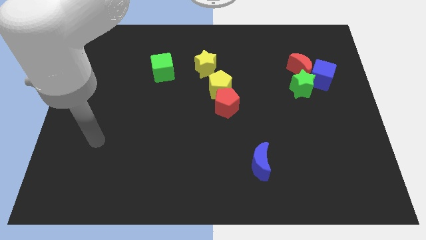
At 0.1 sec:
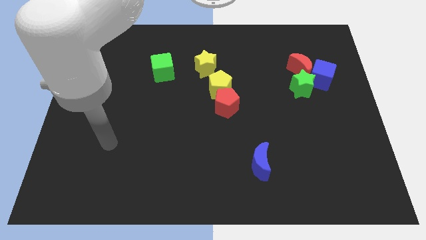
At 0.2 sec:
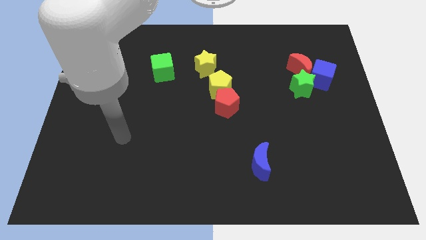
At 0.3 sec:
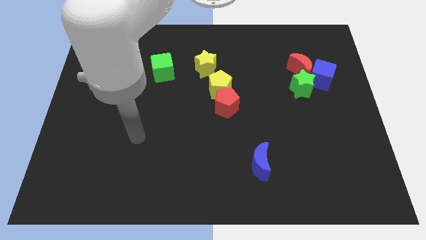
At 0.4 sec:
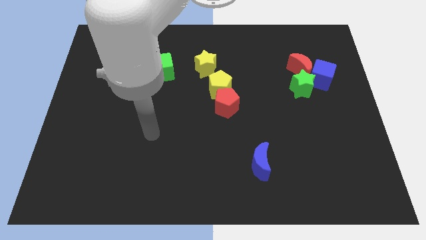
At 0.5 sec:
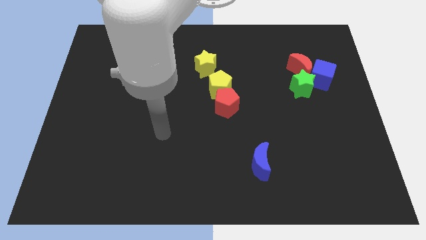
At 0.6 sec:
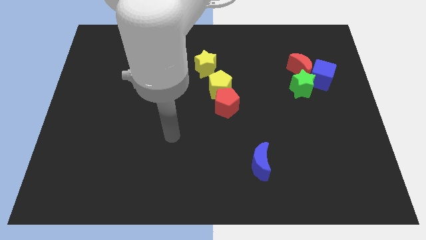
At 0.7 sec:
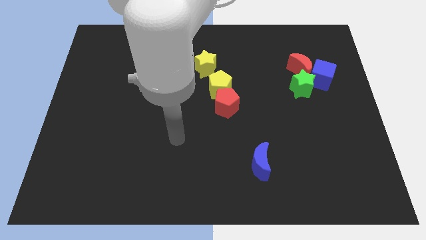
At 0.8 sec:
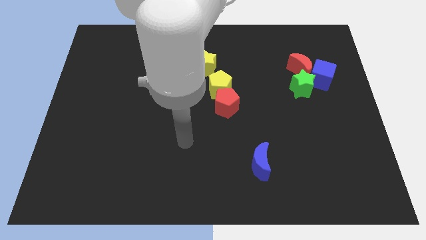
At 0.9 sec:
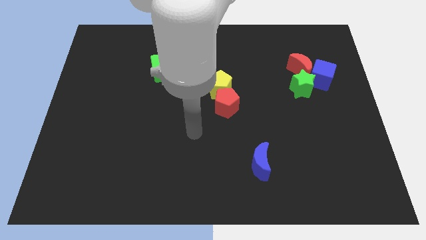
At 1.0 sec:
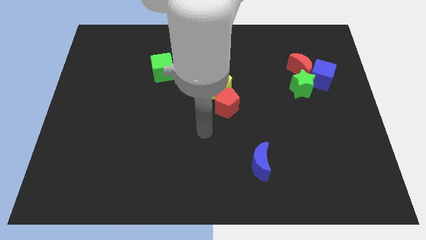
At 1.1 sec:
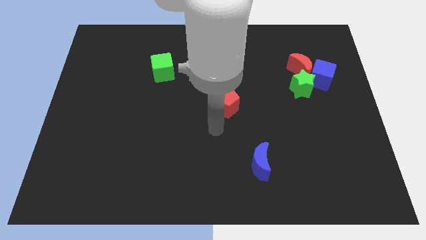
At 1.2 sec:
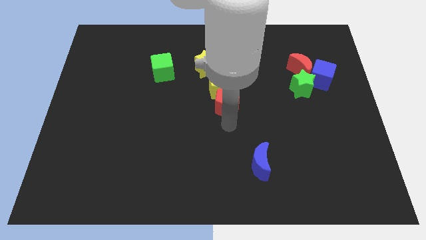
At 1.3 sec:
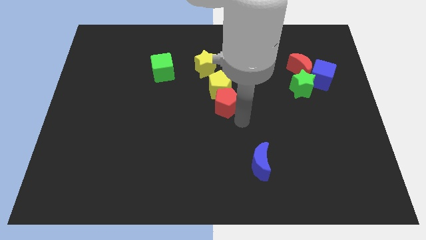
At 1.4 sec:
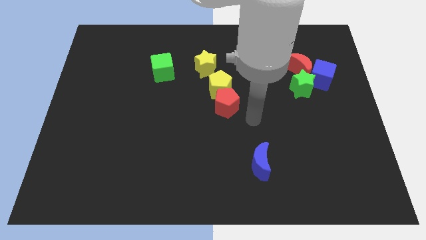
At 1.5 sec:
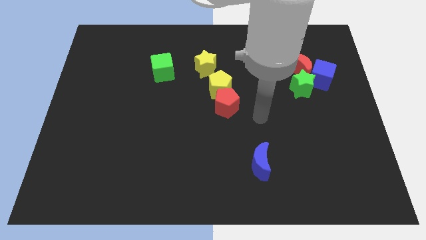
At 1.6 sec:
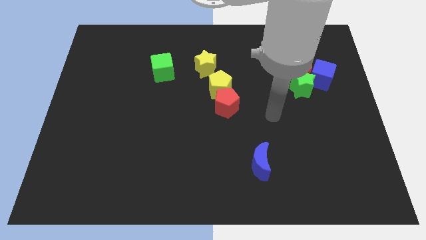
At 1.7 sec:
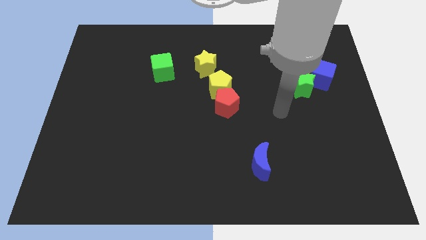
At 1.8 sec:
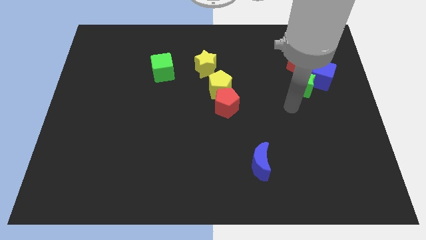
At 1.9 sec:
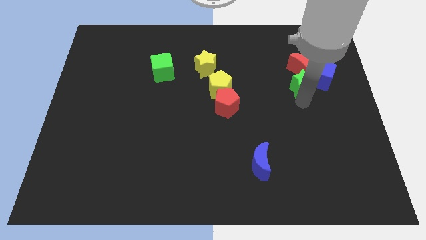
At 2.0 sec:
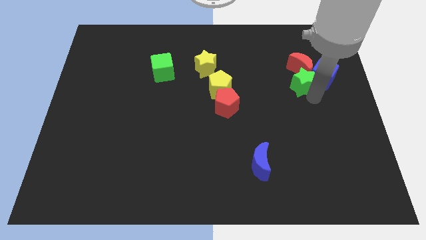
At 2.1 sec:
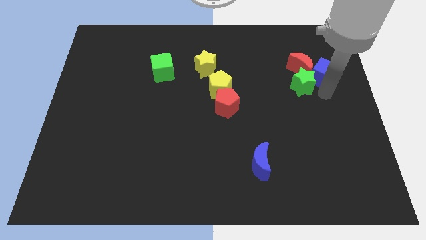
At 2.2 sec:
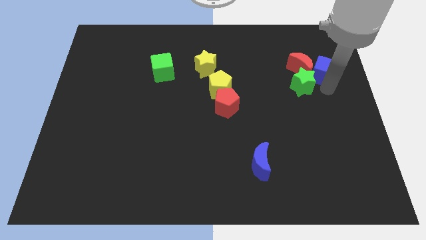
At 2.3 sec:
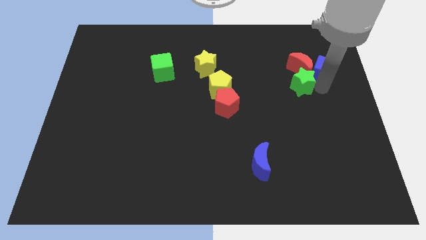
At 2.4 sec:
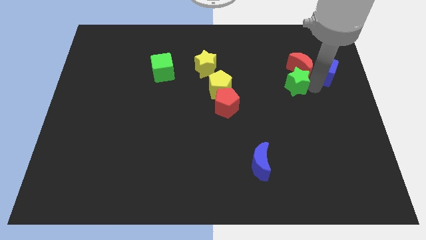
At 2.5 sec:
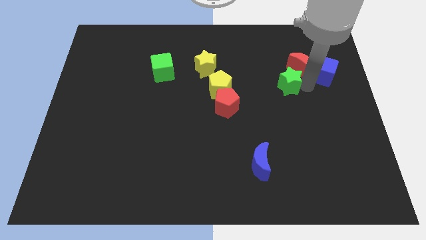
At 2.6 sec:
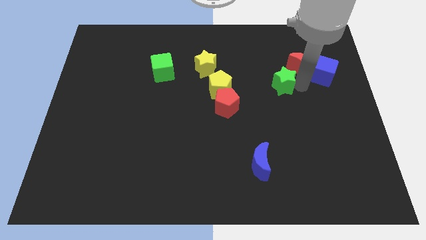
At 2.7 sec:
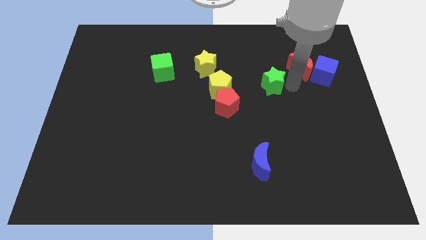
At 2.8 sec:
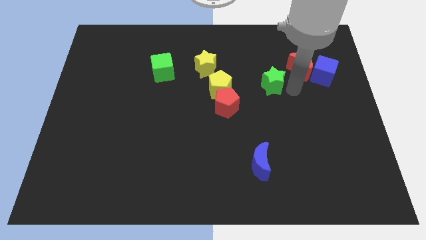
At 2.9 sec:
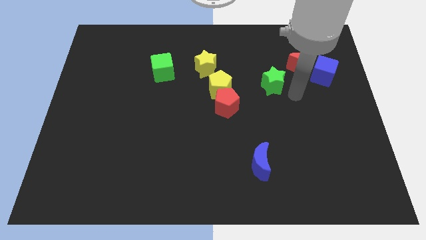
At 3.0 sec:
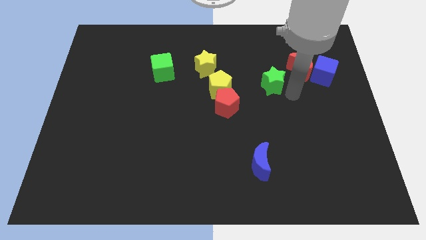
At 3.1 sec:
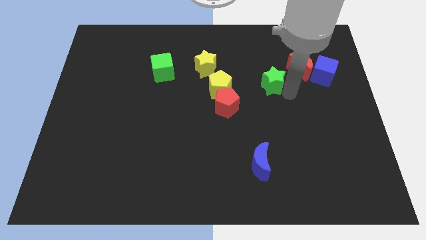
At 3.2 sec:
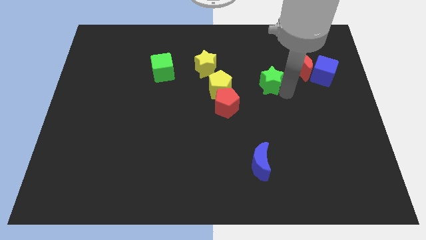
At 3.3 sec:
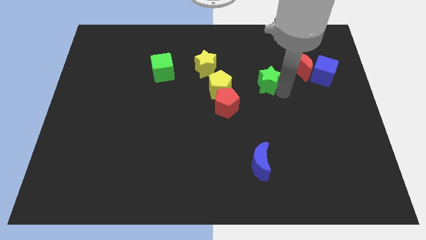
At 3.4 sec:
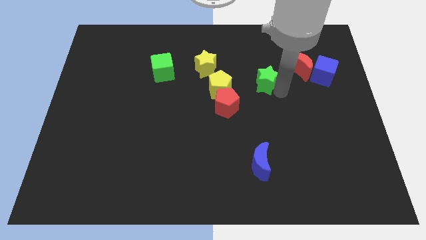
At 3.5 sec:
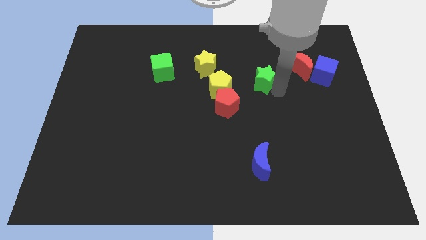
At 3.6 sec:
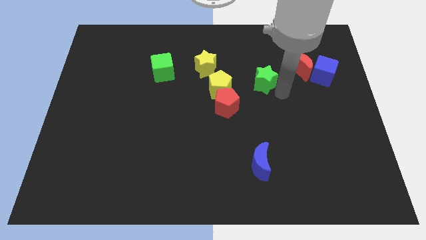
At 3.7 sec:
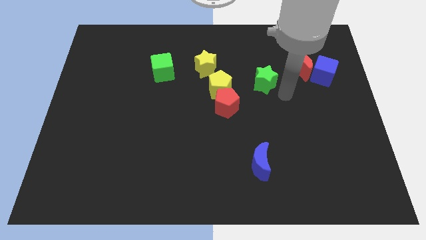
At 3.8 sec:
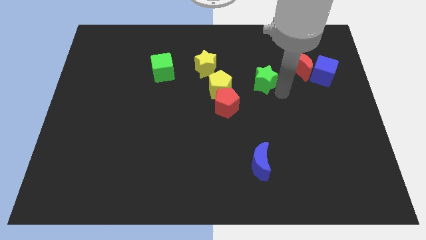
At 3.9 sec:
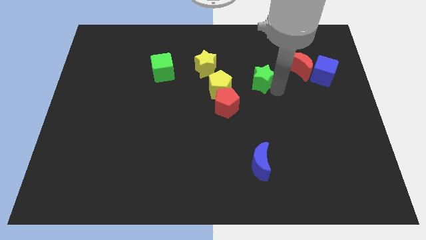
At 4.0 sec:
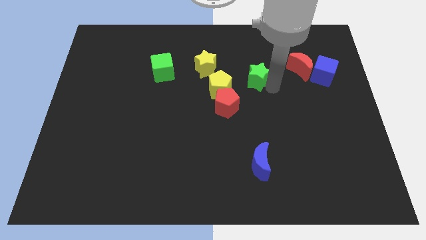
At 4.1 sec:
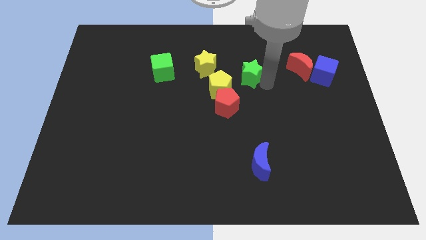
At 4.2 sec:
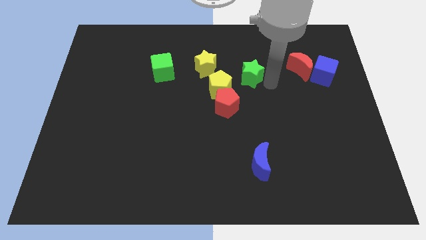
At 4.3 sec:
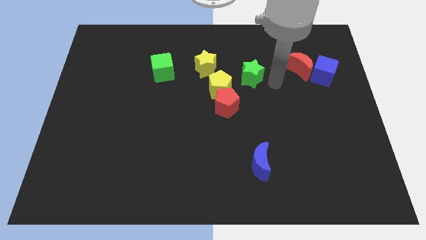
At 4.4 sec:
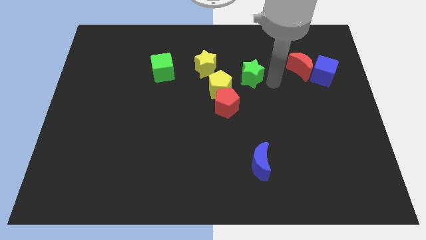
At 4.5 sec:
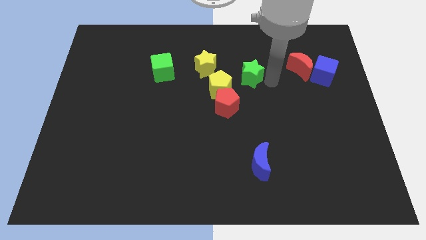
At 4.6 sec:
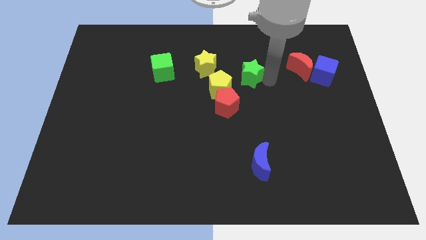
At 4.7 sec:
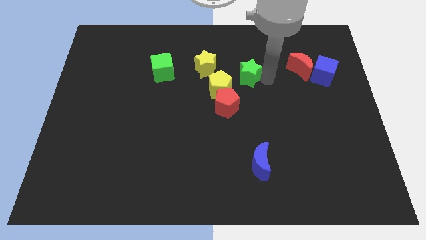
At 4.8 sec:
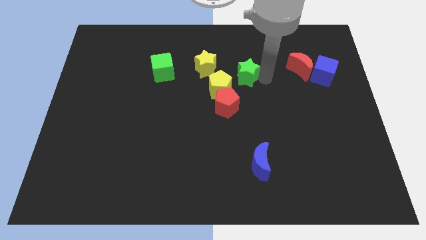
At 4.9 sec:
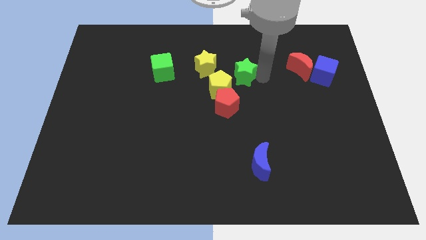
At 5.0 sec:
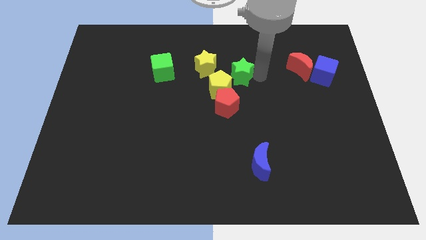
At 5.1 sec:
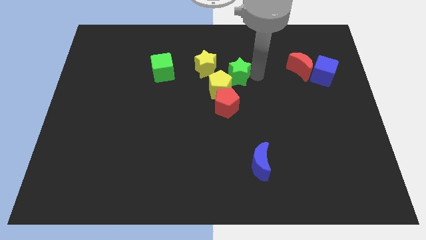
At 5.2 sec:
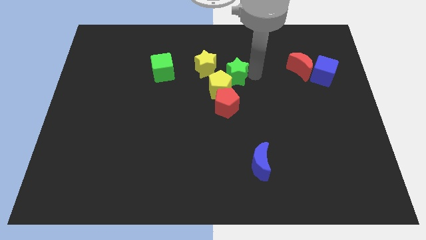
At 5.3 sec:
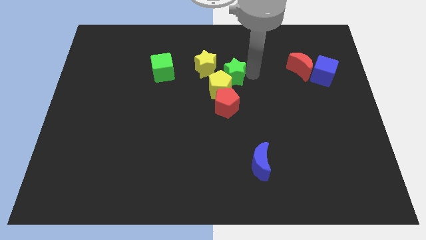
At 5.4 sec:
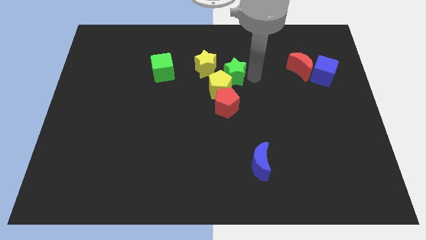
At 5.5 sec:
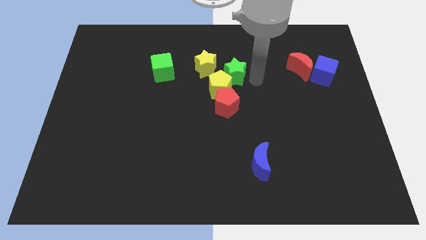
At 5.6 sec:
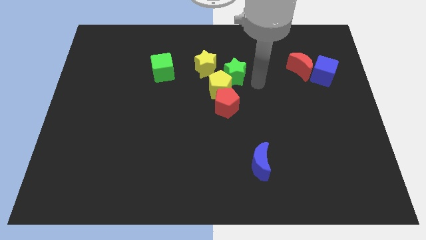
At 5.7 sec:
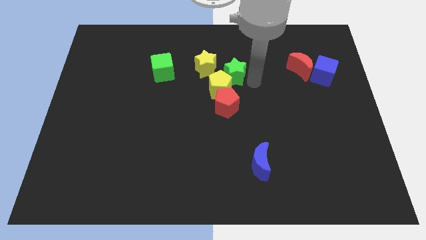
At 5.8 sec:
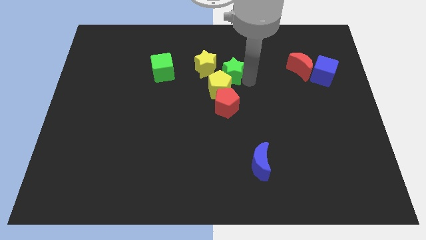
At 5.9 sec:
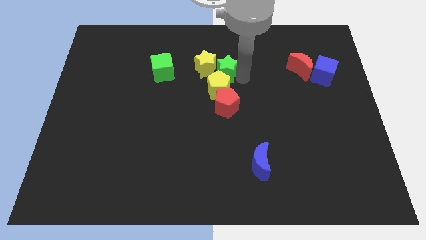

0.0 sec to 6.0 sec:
put the green star next to the yellow star

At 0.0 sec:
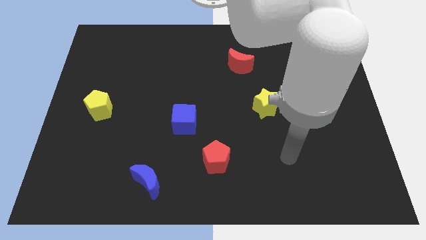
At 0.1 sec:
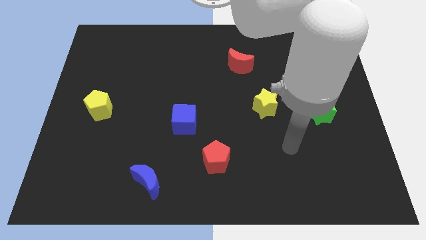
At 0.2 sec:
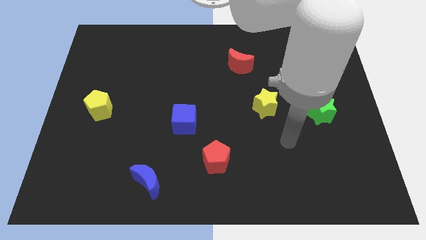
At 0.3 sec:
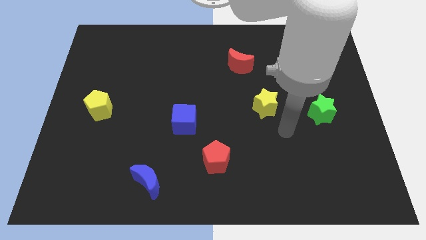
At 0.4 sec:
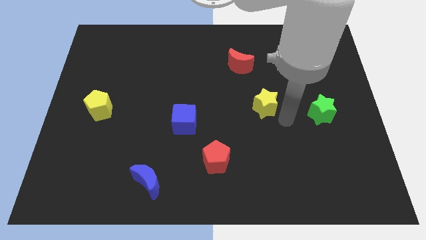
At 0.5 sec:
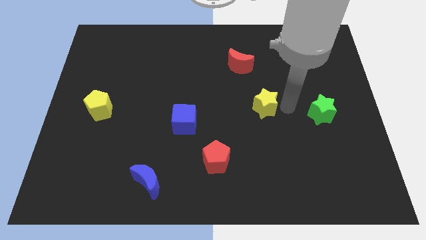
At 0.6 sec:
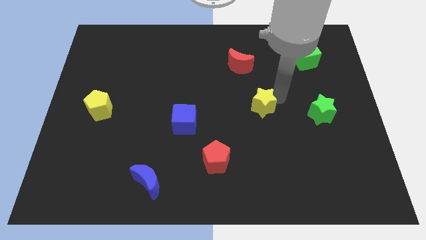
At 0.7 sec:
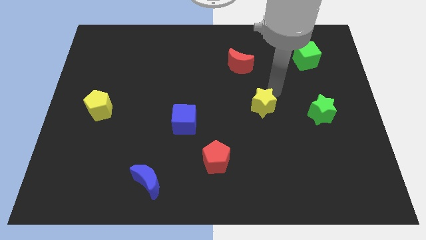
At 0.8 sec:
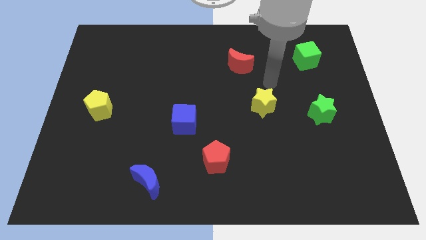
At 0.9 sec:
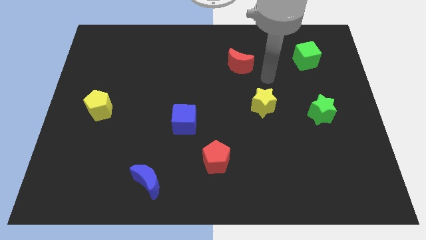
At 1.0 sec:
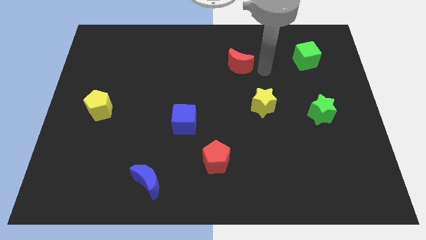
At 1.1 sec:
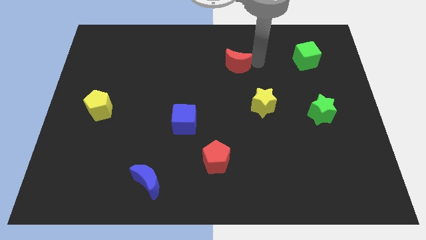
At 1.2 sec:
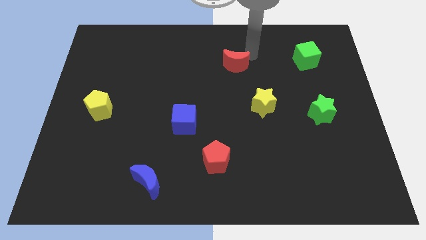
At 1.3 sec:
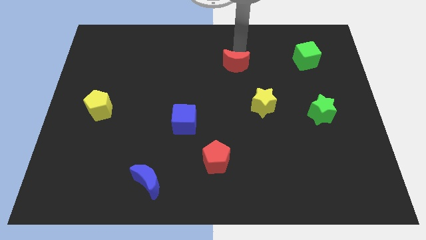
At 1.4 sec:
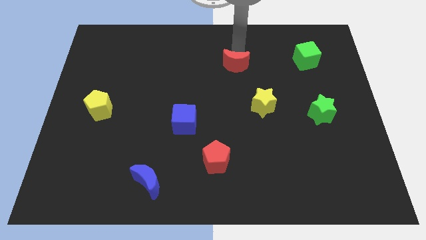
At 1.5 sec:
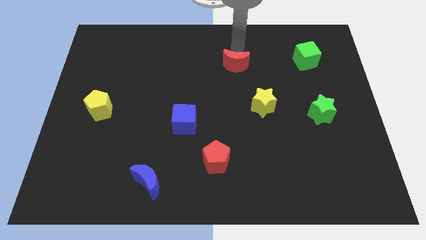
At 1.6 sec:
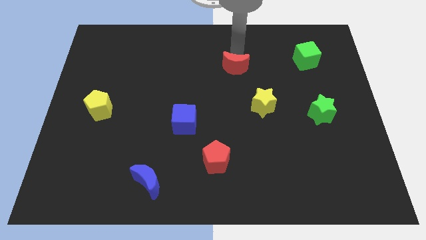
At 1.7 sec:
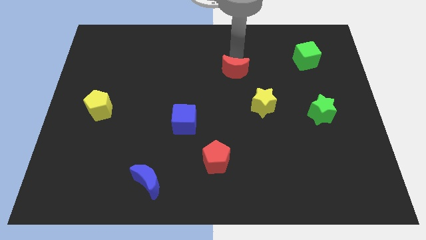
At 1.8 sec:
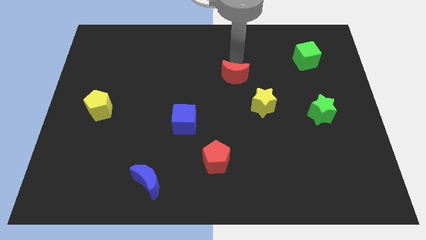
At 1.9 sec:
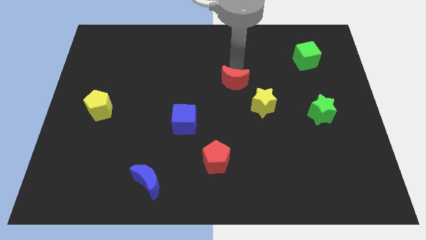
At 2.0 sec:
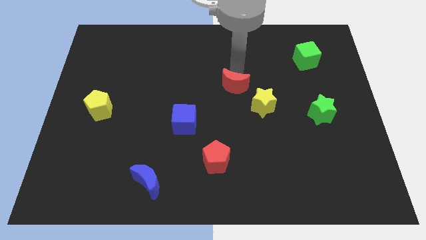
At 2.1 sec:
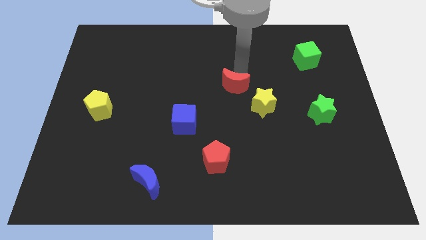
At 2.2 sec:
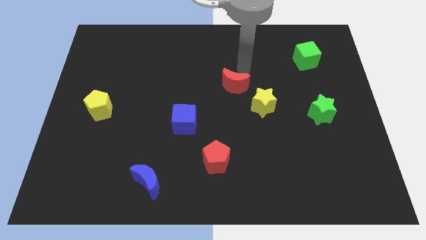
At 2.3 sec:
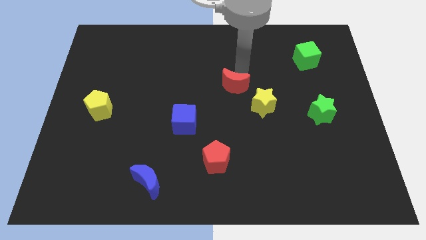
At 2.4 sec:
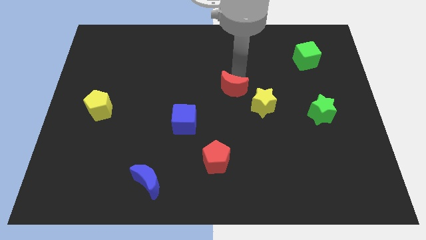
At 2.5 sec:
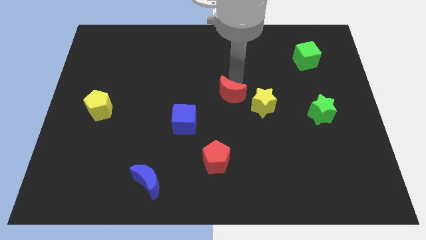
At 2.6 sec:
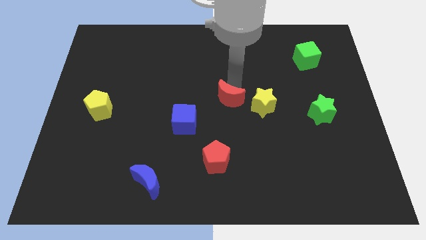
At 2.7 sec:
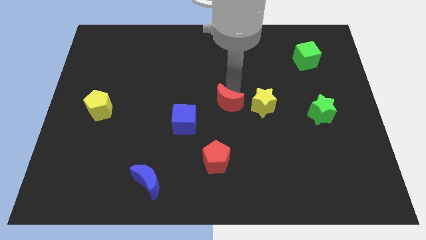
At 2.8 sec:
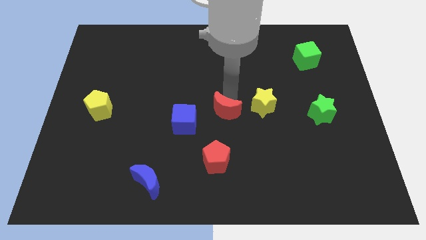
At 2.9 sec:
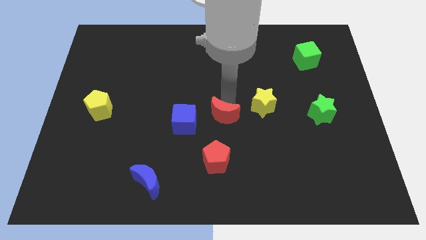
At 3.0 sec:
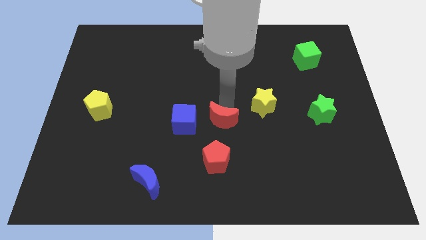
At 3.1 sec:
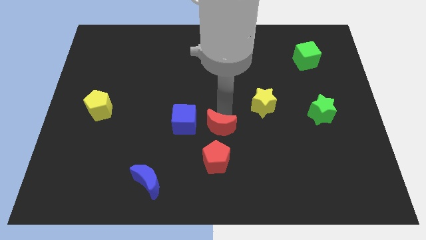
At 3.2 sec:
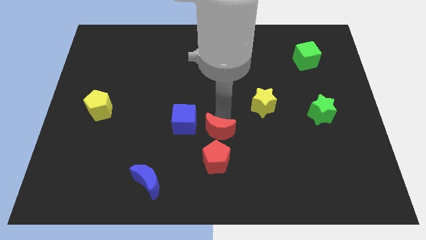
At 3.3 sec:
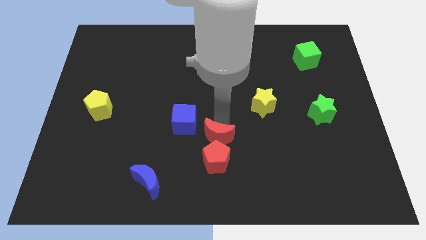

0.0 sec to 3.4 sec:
move the red moon towards the red pentagon
